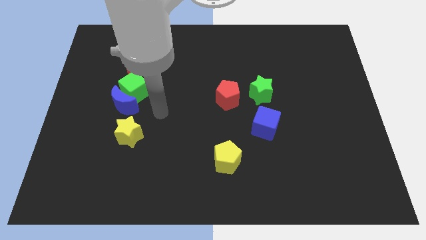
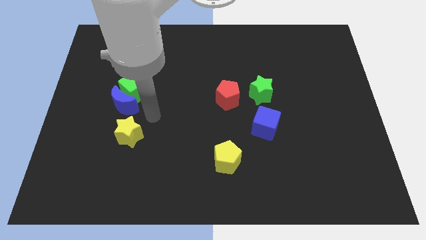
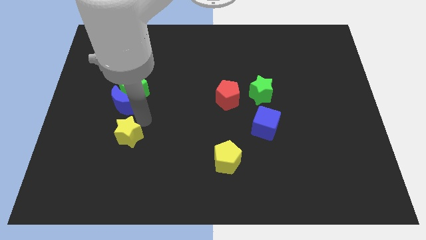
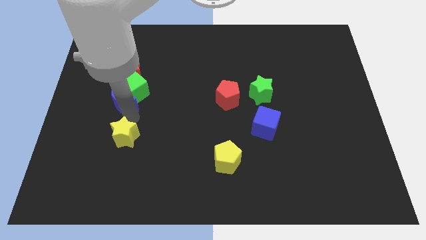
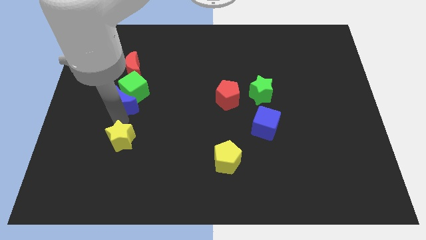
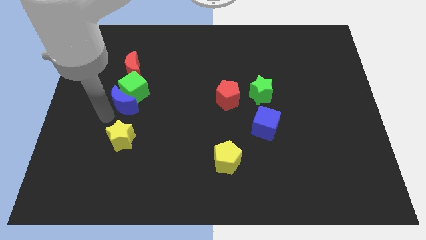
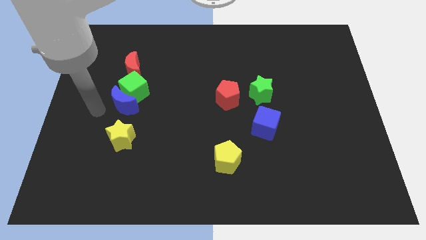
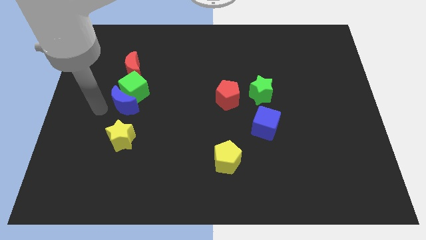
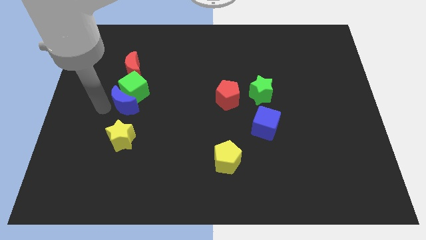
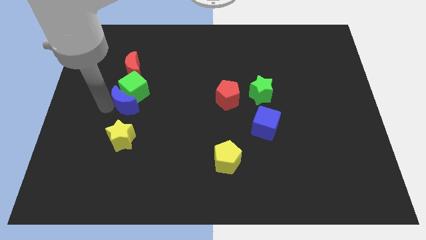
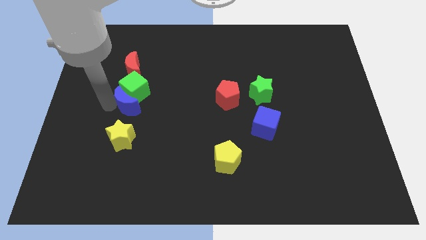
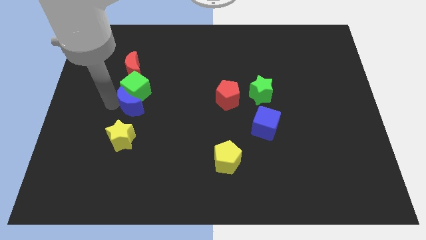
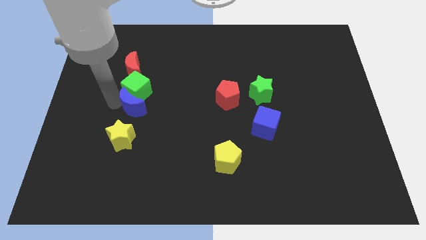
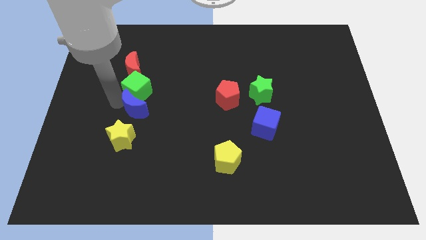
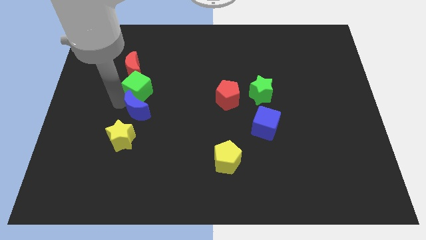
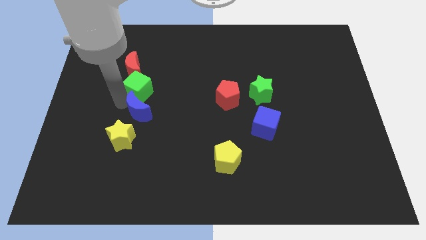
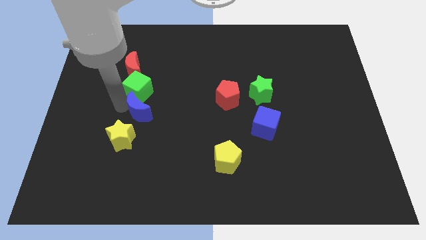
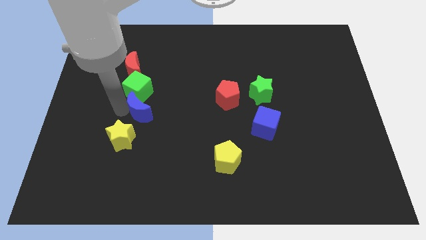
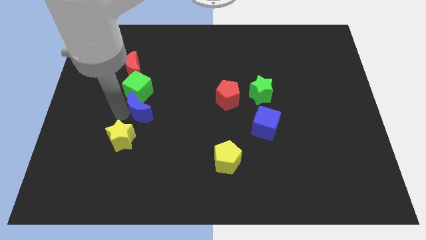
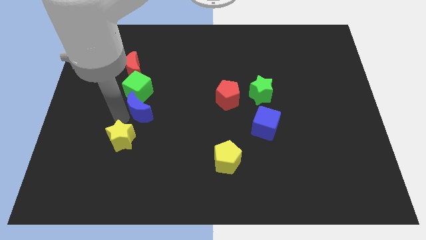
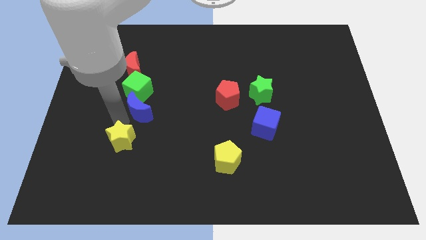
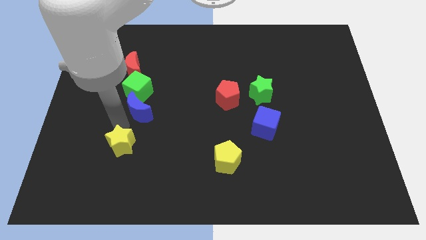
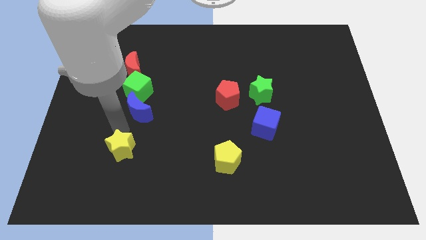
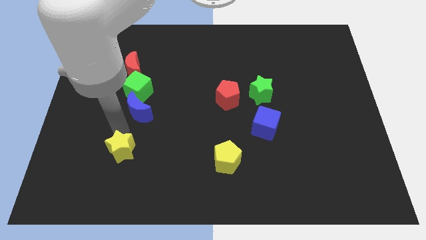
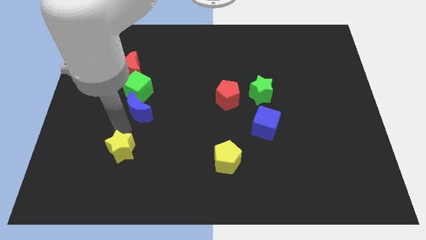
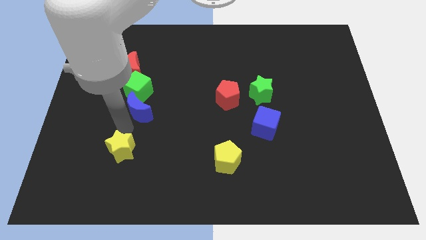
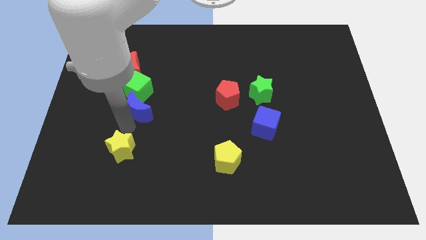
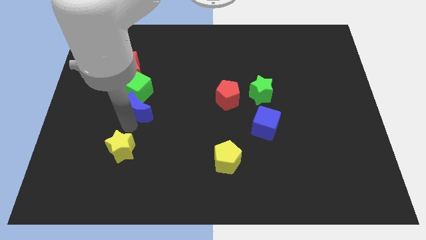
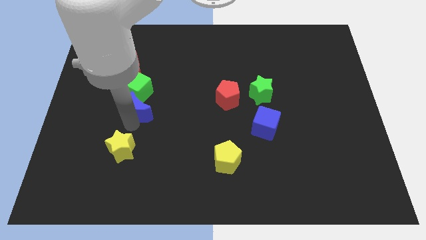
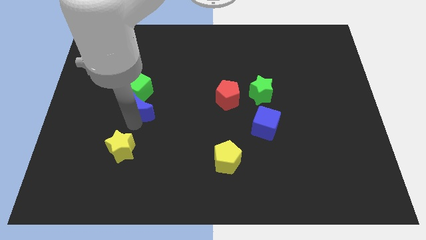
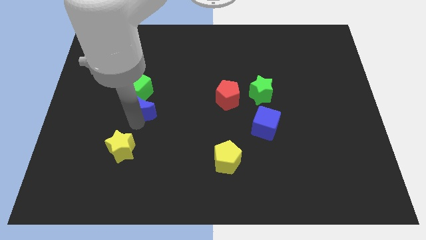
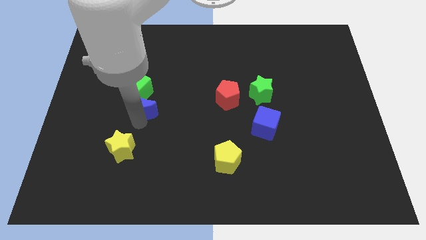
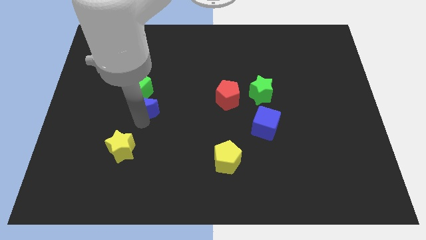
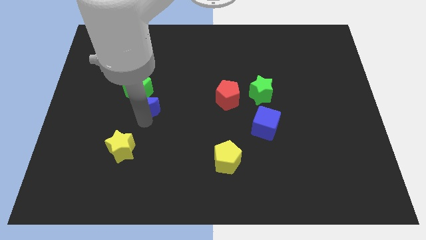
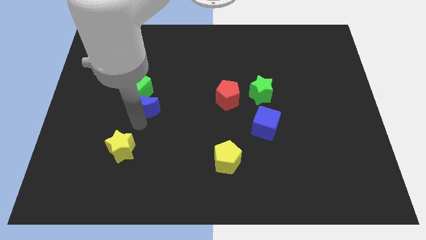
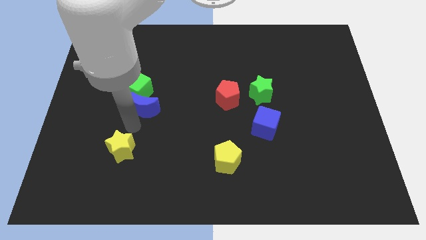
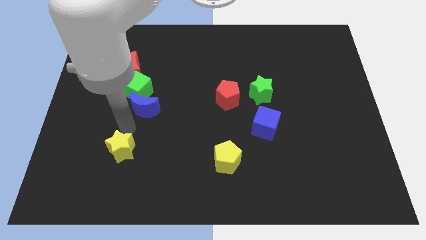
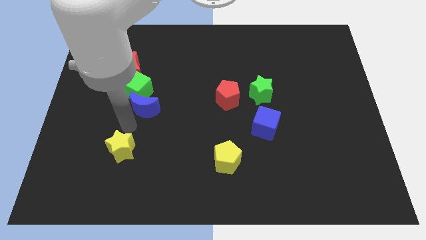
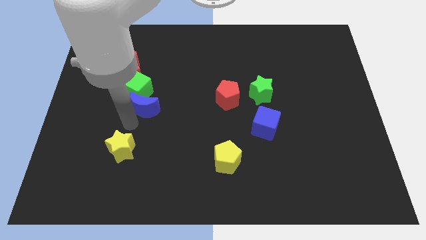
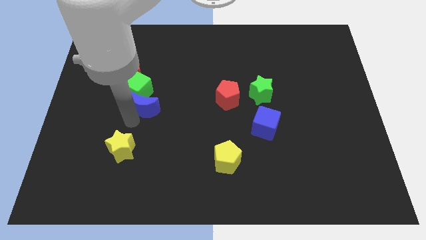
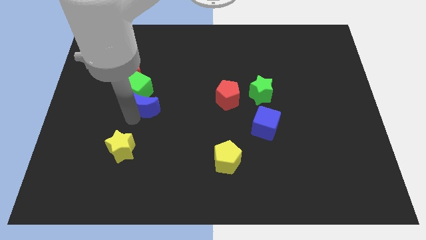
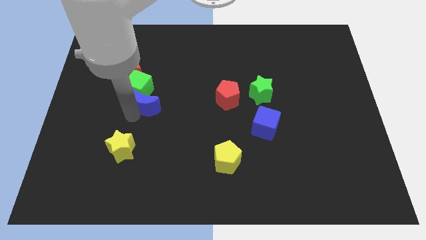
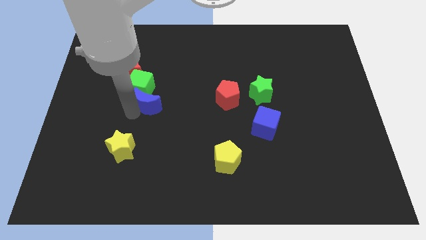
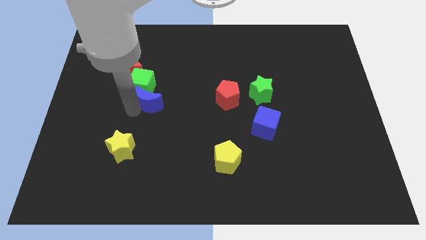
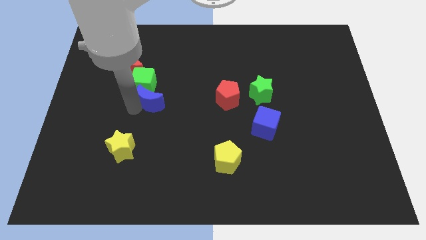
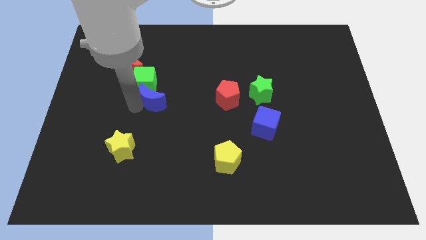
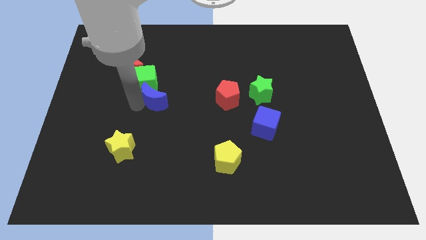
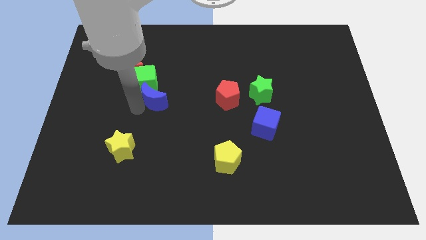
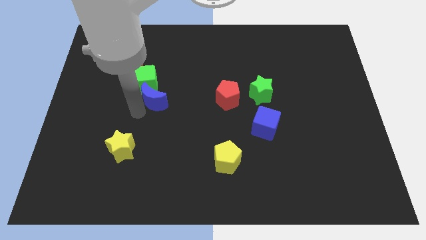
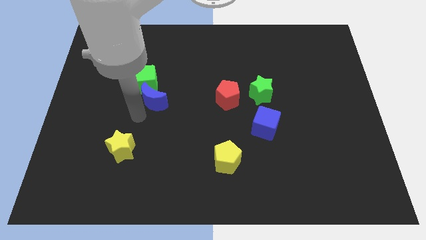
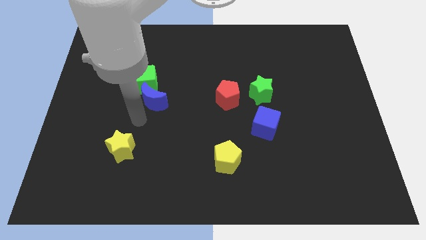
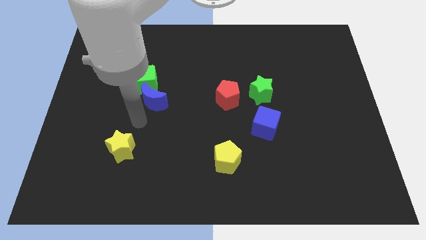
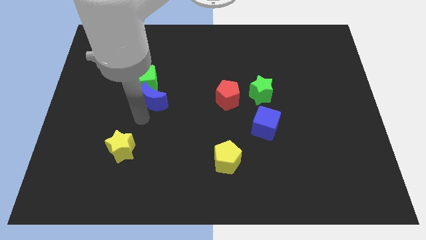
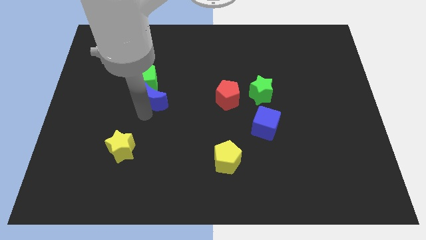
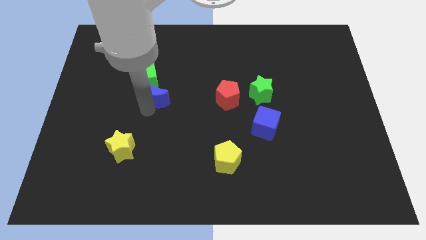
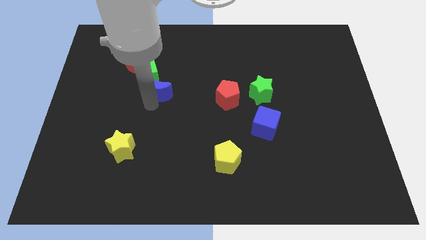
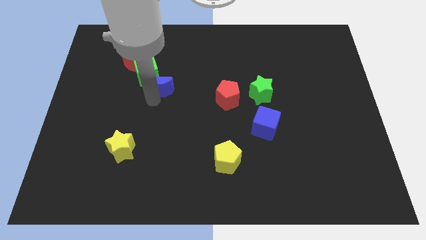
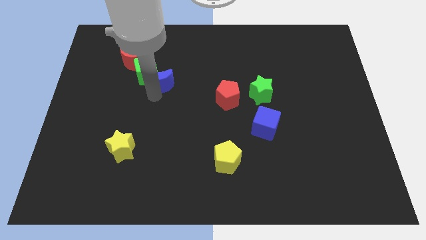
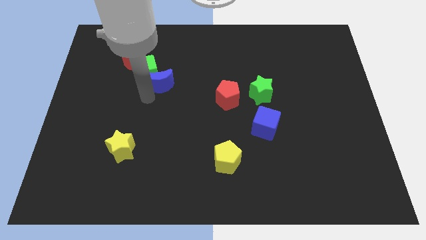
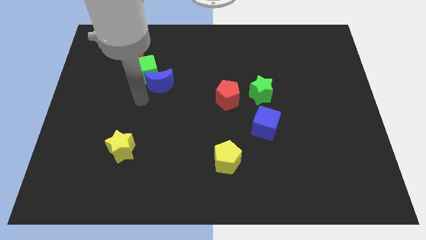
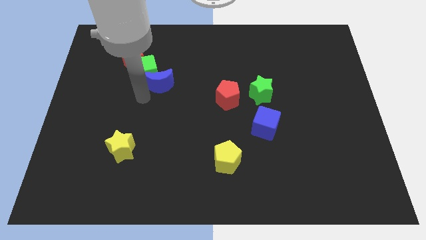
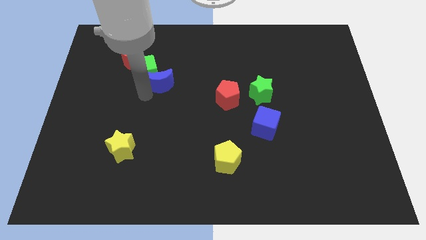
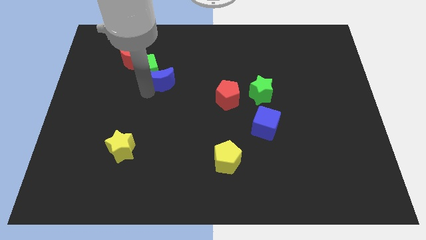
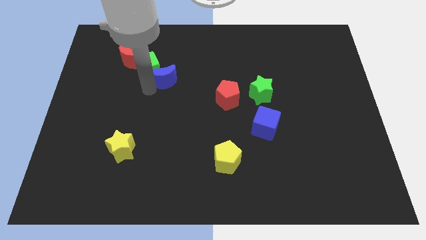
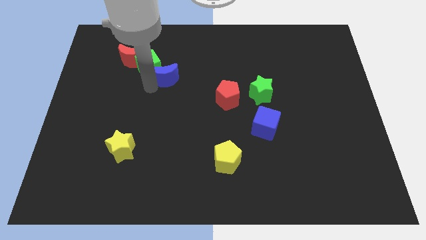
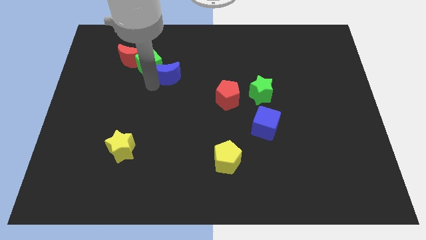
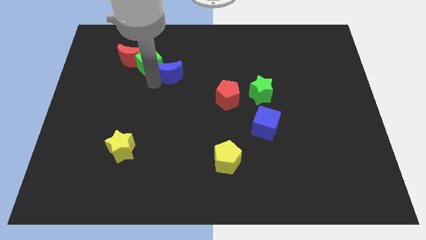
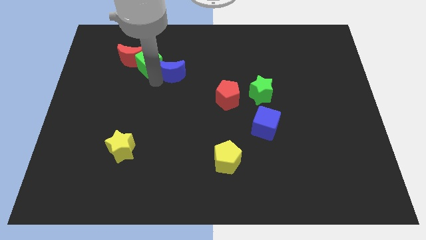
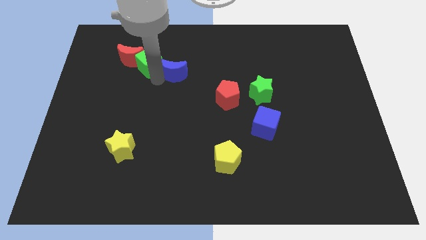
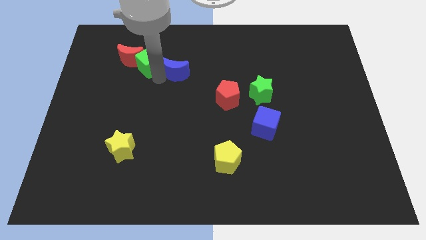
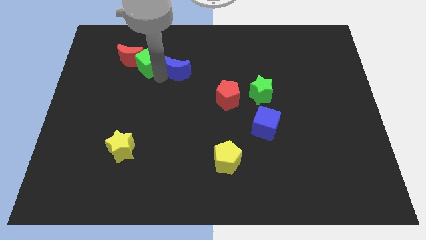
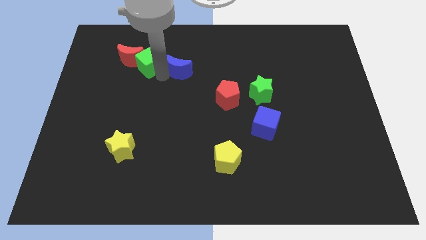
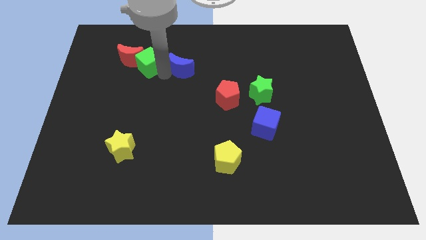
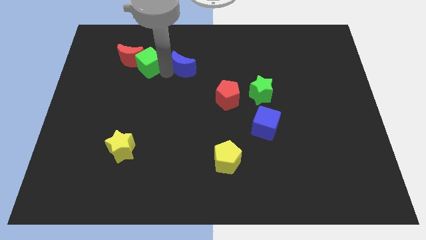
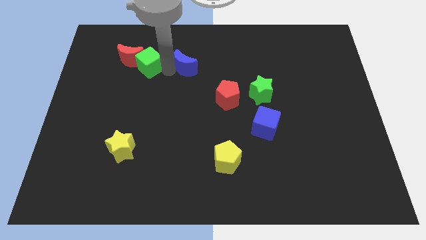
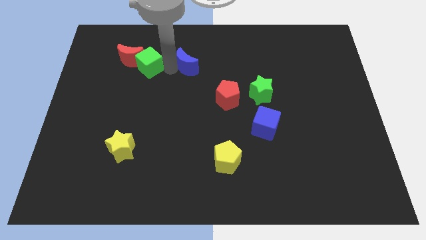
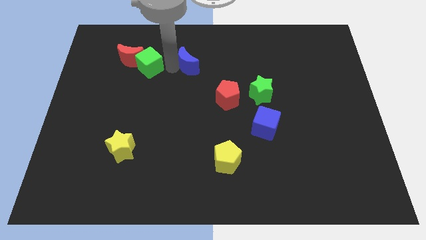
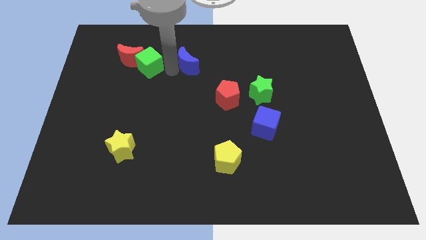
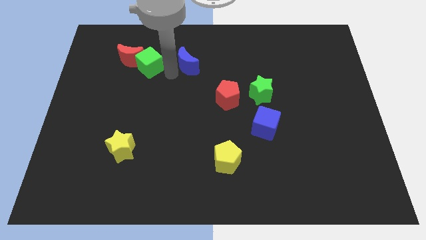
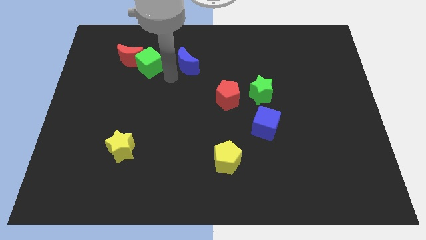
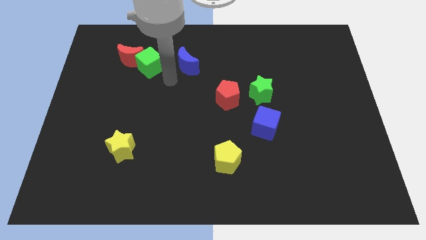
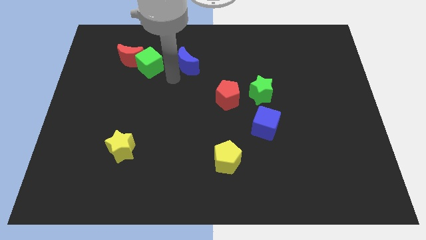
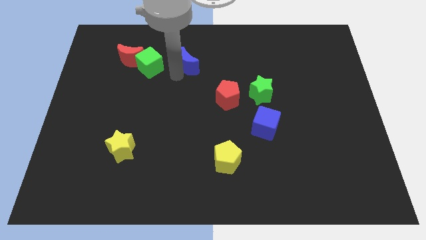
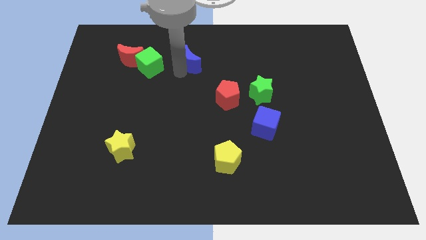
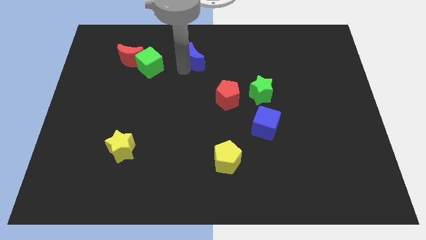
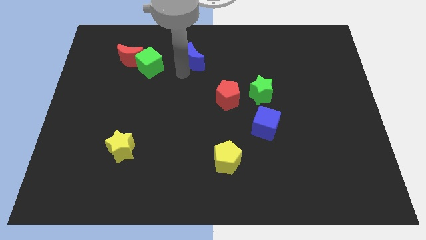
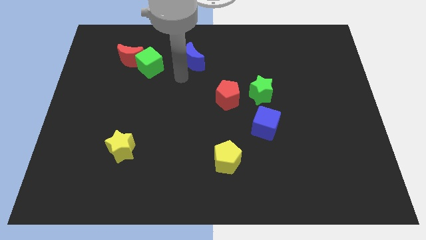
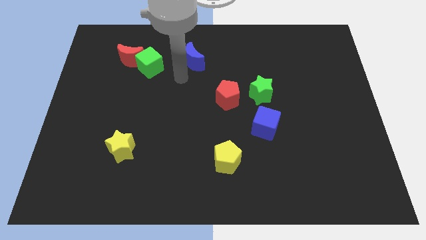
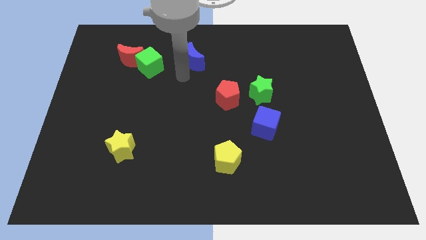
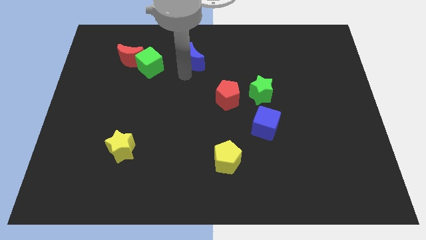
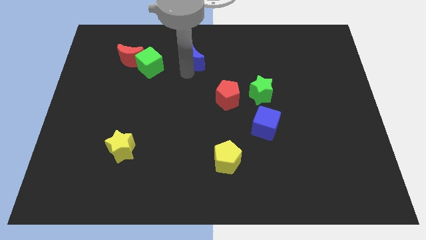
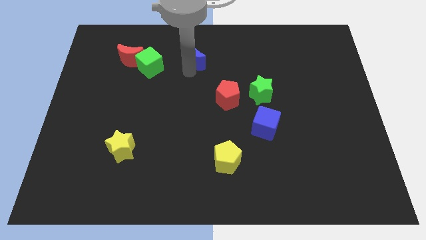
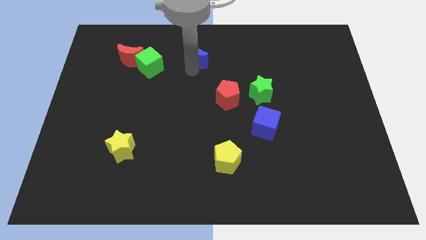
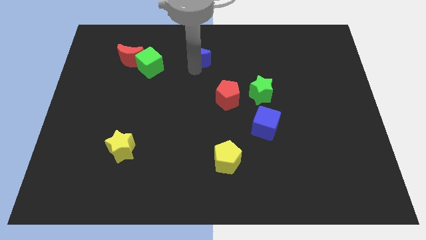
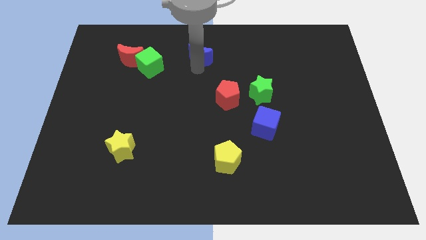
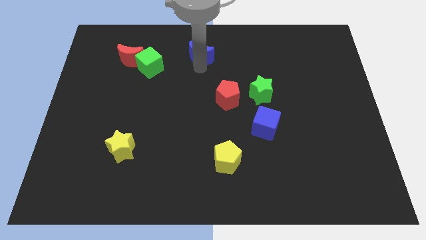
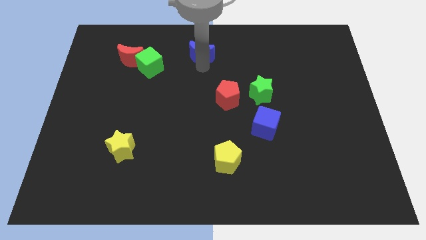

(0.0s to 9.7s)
put the blue moon to the top
